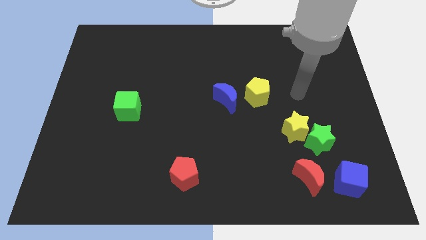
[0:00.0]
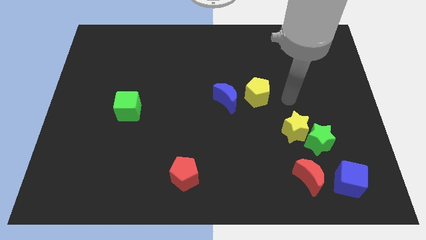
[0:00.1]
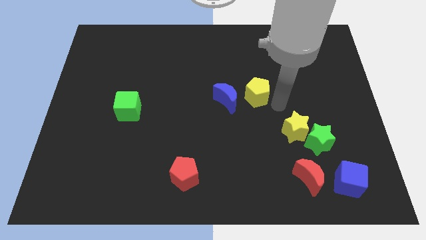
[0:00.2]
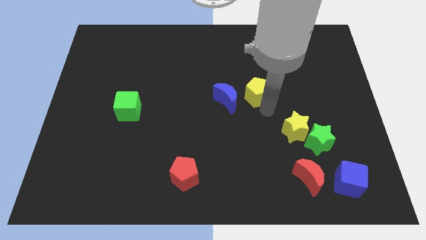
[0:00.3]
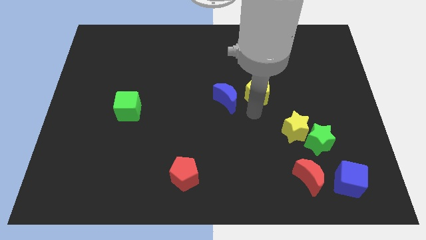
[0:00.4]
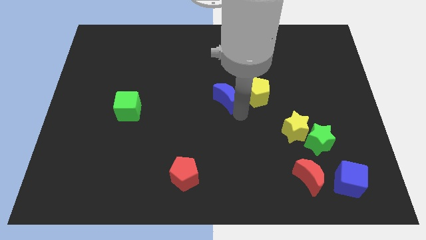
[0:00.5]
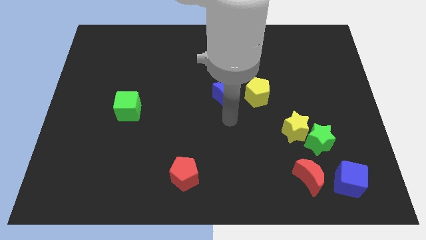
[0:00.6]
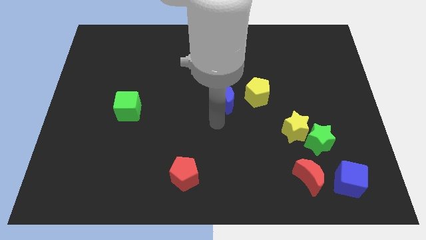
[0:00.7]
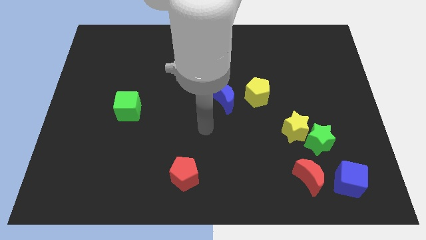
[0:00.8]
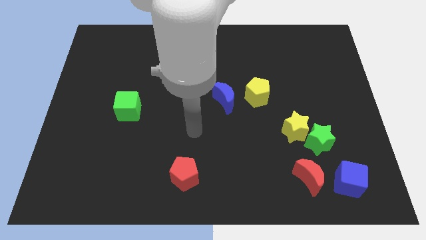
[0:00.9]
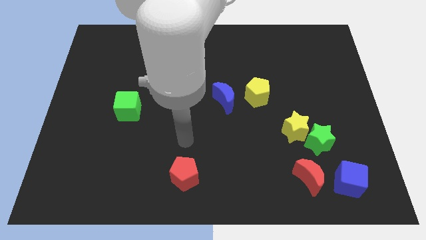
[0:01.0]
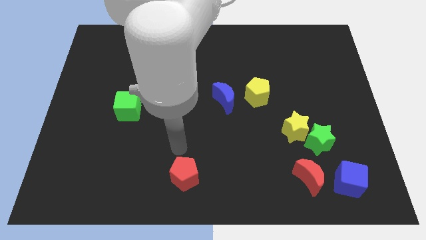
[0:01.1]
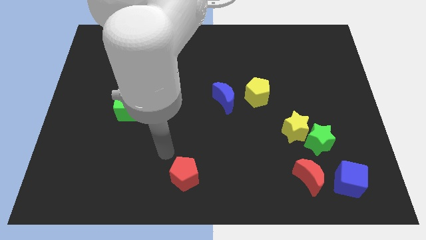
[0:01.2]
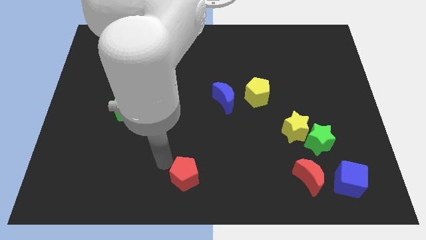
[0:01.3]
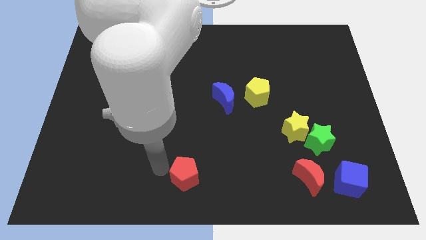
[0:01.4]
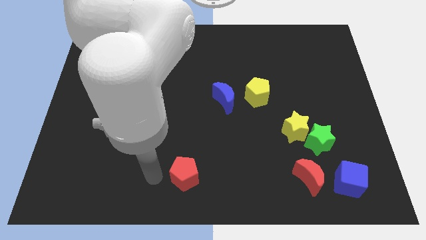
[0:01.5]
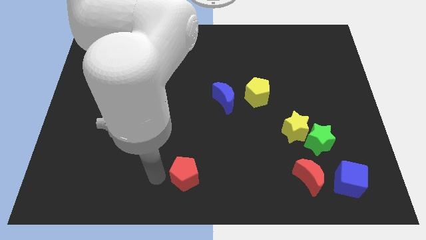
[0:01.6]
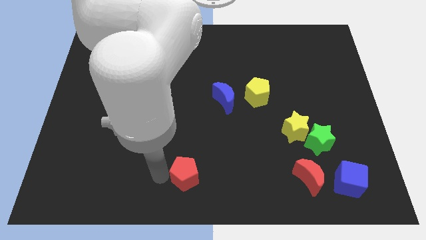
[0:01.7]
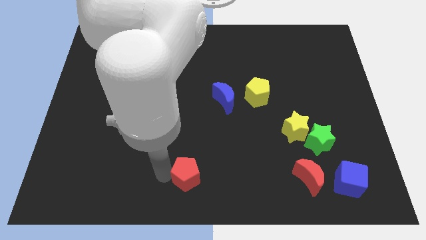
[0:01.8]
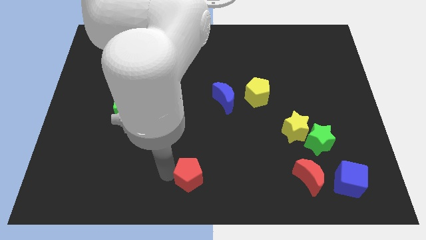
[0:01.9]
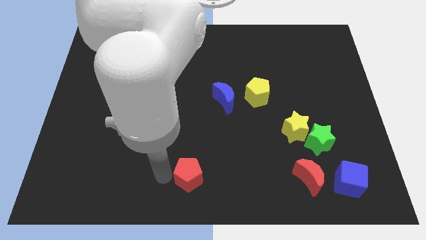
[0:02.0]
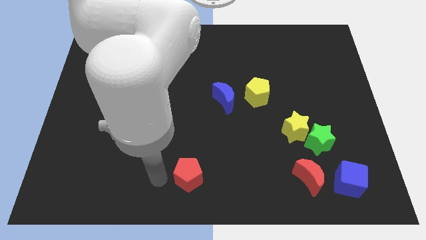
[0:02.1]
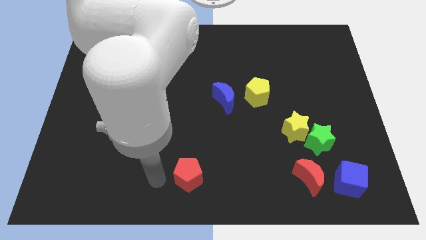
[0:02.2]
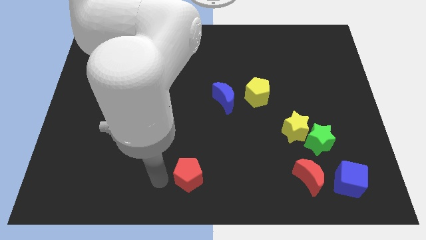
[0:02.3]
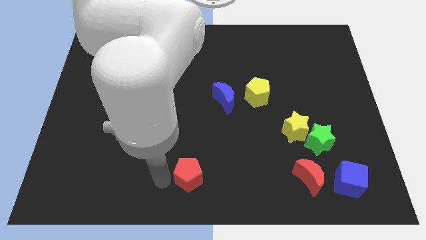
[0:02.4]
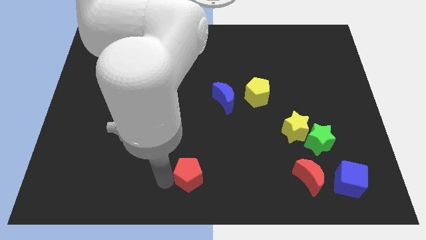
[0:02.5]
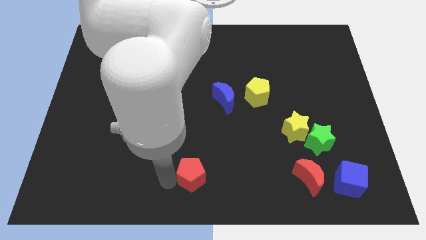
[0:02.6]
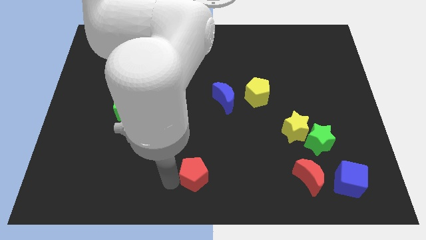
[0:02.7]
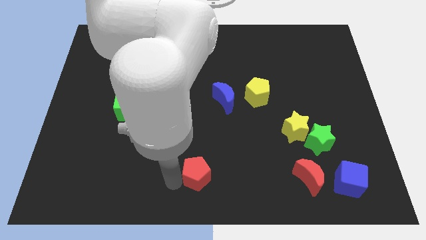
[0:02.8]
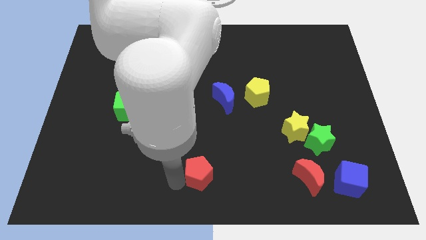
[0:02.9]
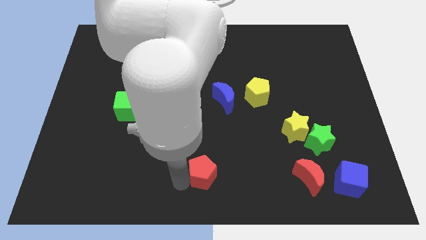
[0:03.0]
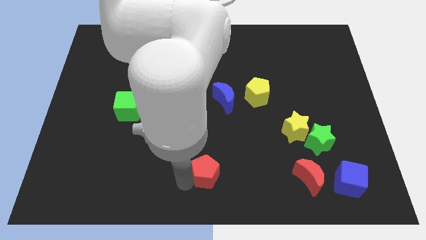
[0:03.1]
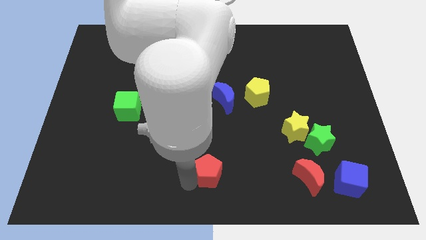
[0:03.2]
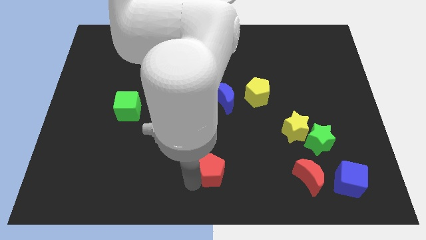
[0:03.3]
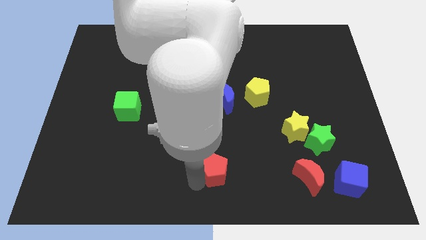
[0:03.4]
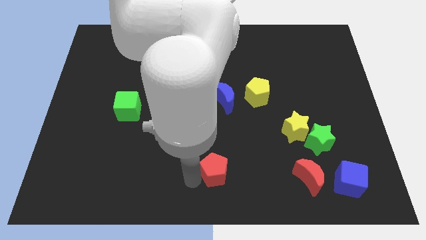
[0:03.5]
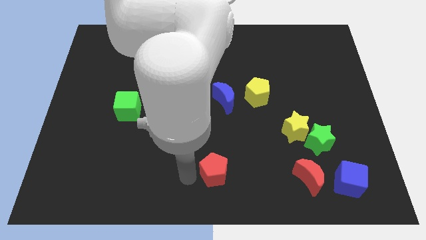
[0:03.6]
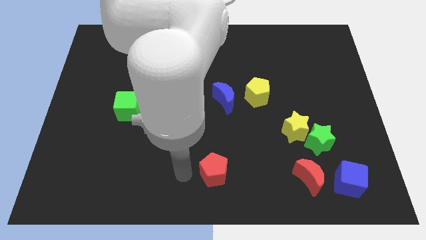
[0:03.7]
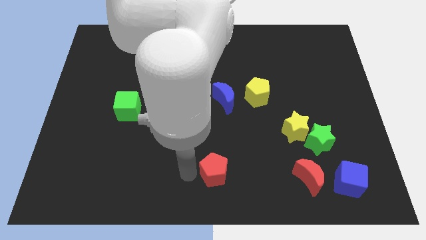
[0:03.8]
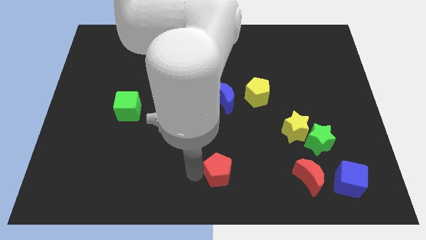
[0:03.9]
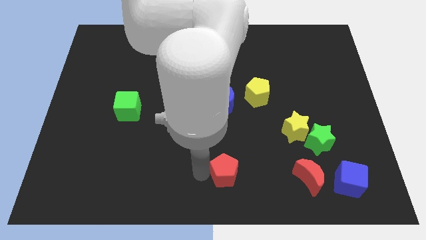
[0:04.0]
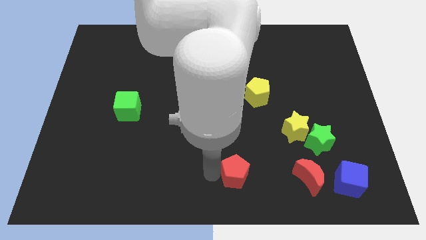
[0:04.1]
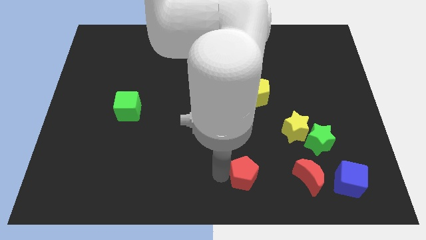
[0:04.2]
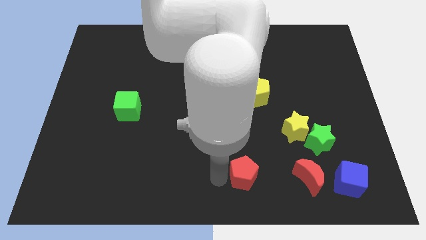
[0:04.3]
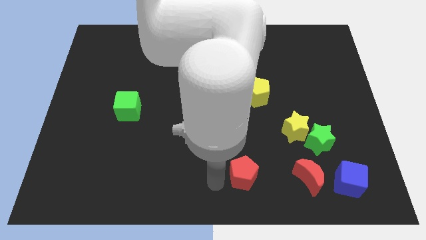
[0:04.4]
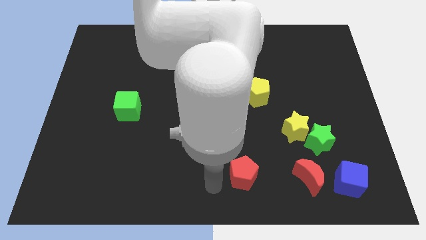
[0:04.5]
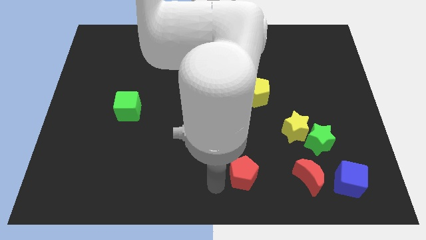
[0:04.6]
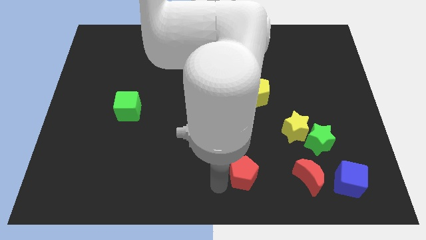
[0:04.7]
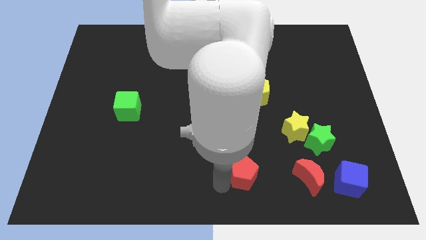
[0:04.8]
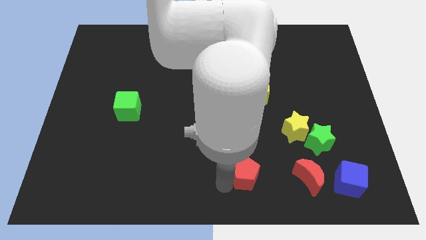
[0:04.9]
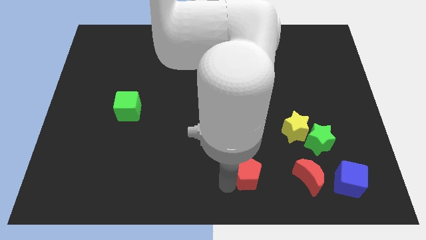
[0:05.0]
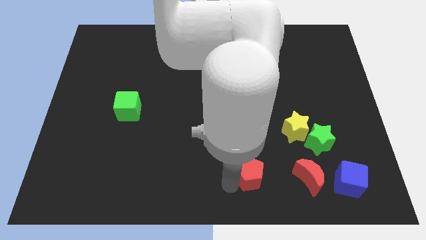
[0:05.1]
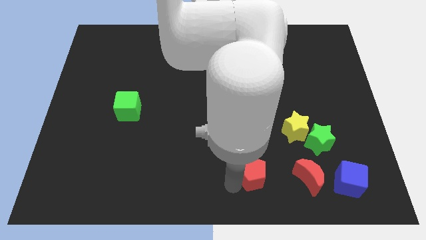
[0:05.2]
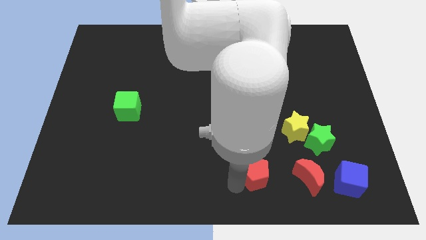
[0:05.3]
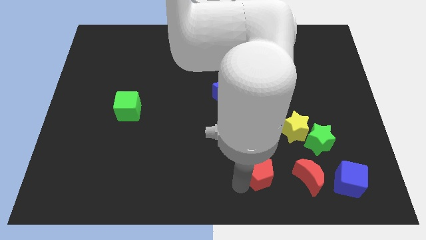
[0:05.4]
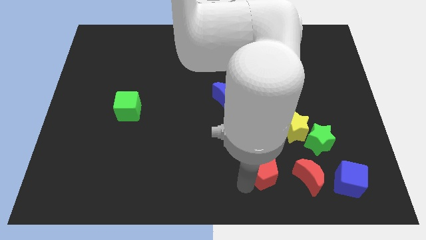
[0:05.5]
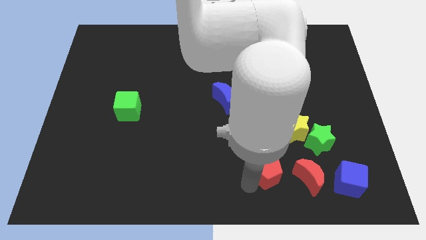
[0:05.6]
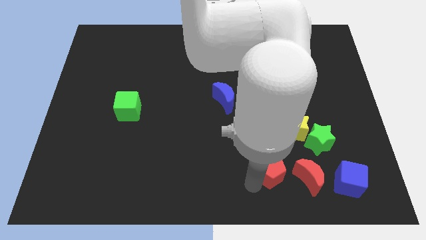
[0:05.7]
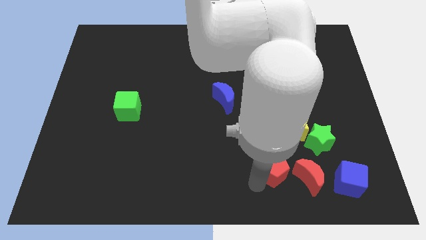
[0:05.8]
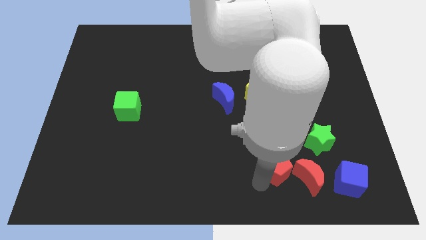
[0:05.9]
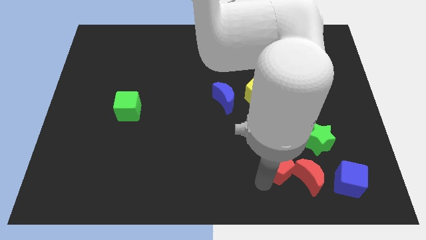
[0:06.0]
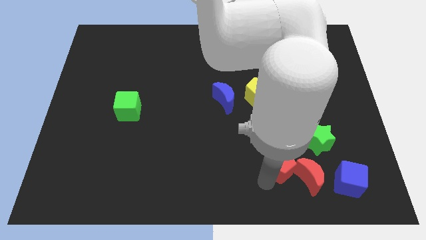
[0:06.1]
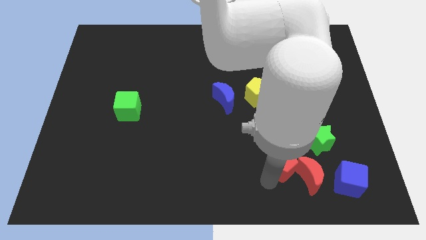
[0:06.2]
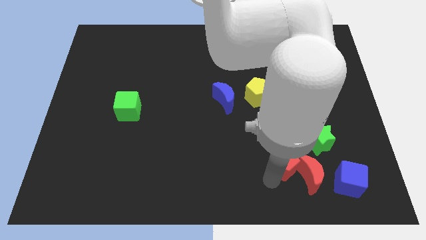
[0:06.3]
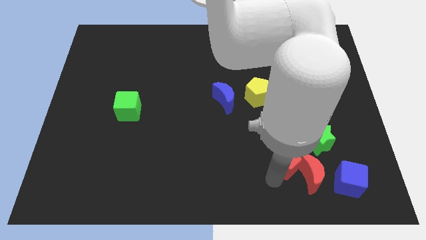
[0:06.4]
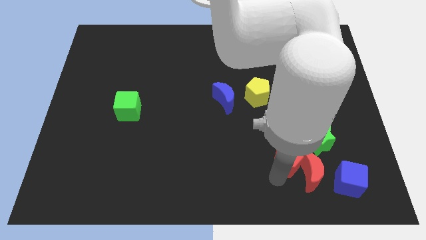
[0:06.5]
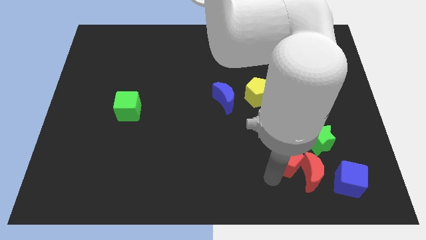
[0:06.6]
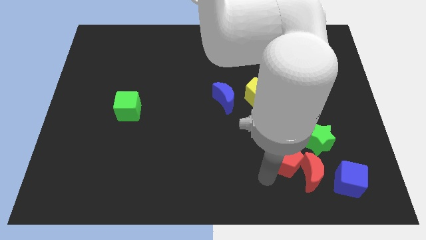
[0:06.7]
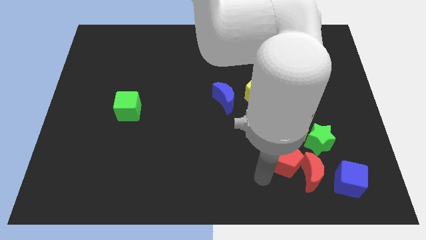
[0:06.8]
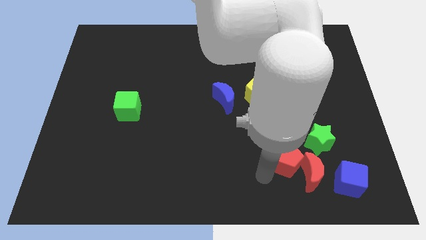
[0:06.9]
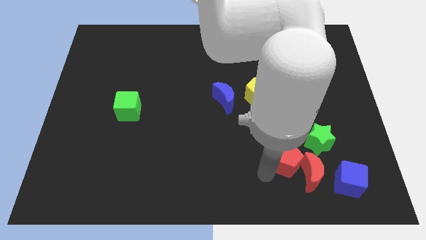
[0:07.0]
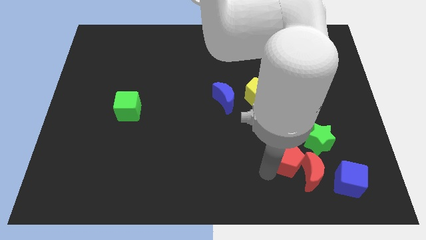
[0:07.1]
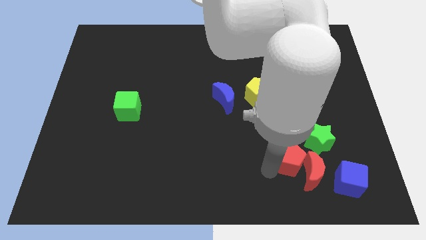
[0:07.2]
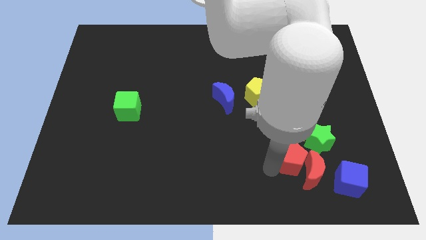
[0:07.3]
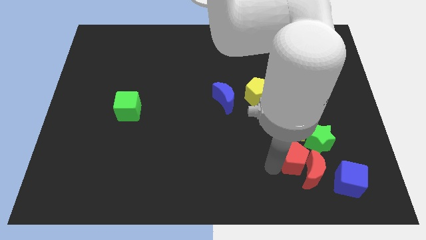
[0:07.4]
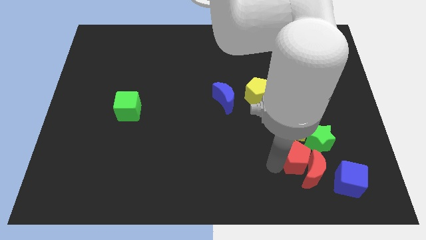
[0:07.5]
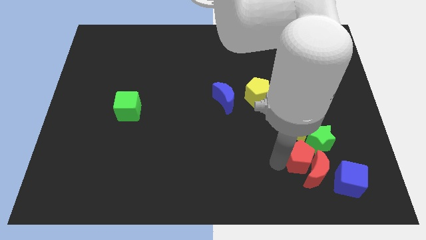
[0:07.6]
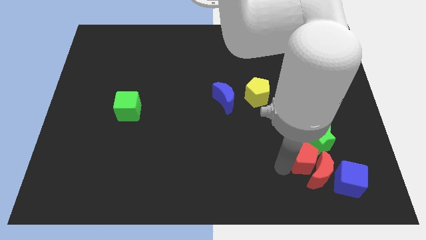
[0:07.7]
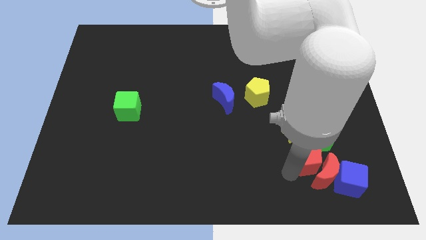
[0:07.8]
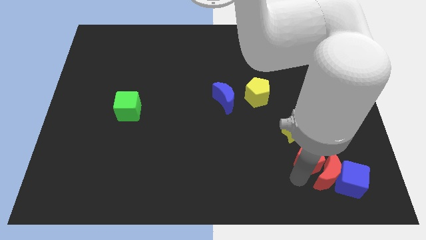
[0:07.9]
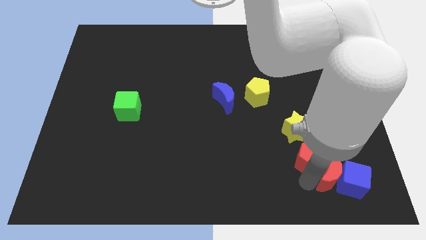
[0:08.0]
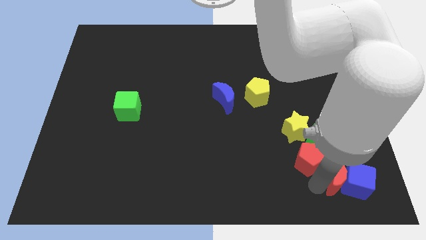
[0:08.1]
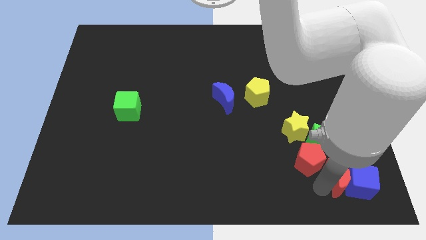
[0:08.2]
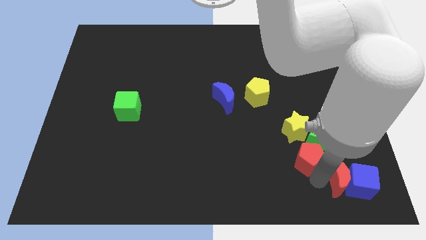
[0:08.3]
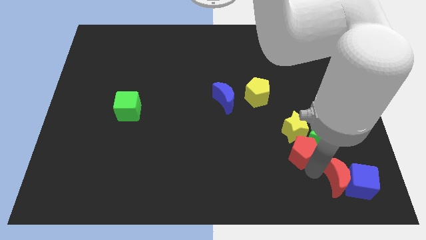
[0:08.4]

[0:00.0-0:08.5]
move the red pentagon close to the yellow star
